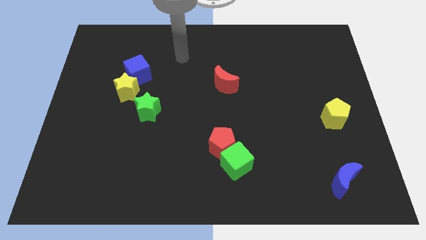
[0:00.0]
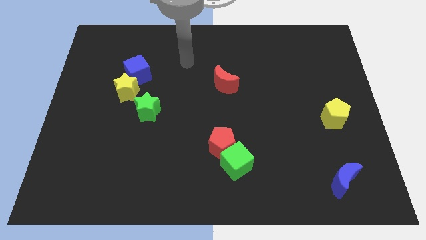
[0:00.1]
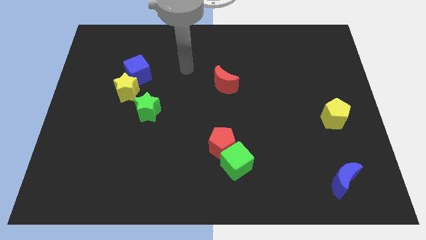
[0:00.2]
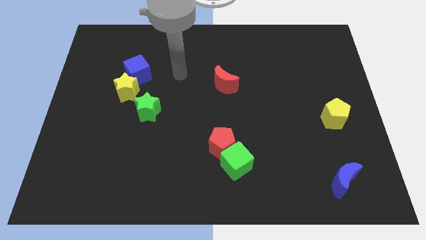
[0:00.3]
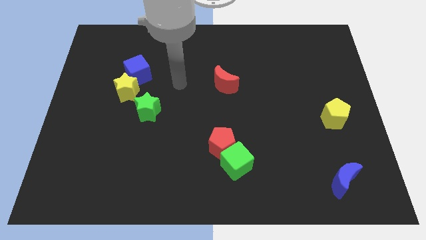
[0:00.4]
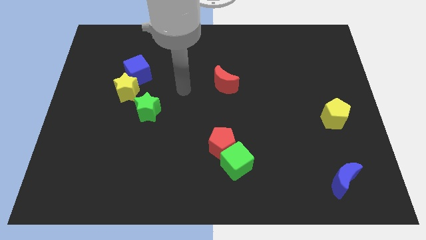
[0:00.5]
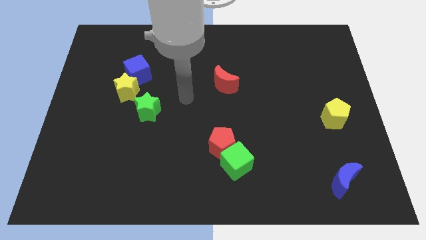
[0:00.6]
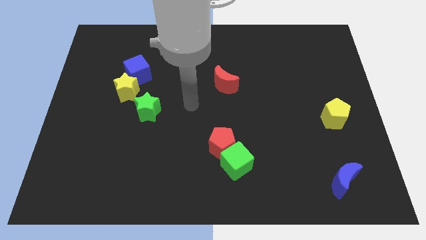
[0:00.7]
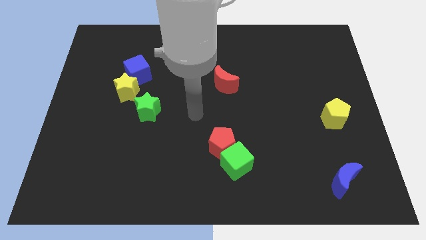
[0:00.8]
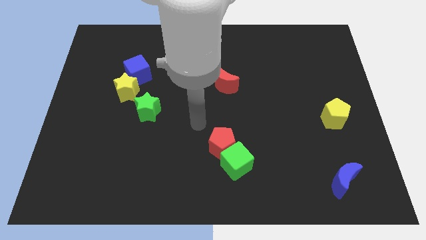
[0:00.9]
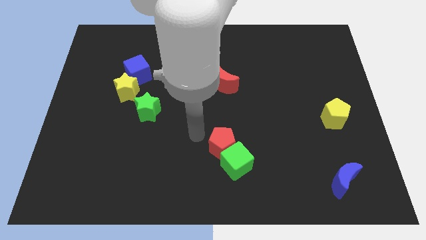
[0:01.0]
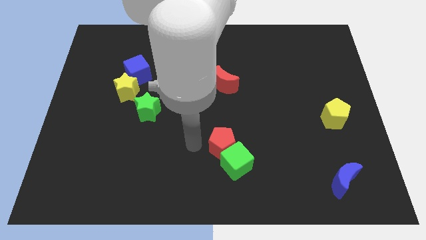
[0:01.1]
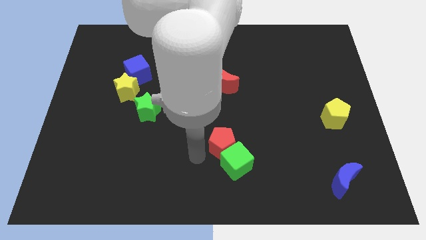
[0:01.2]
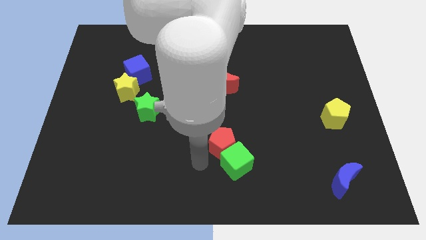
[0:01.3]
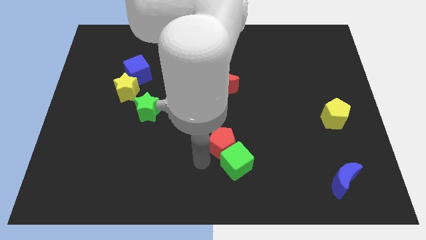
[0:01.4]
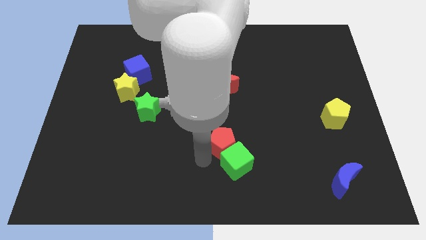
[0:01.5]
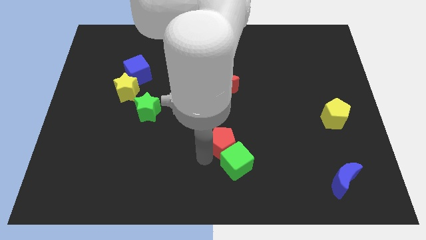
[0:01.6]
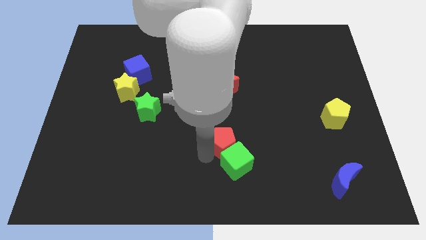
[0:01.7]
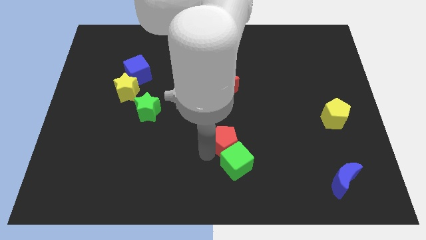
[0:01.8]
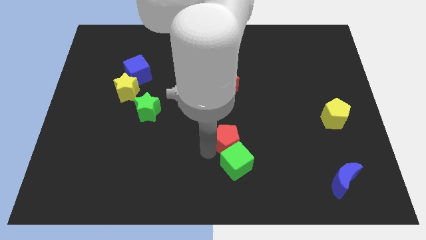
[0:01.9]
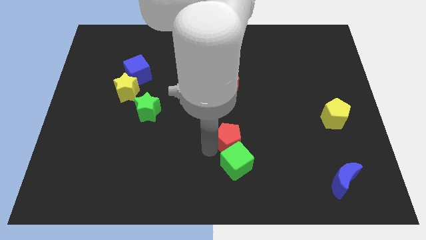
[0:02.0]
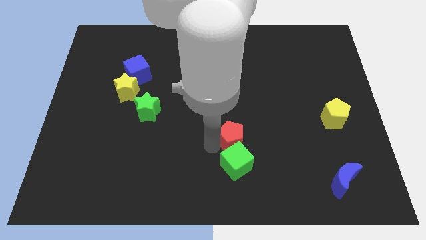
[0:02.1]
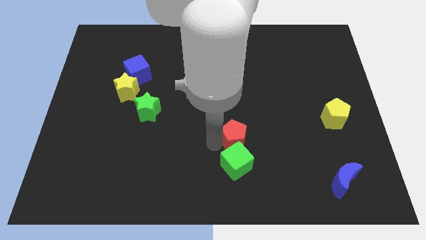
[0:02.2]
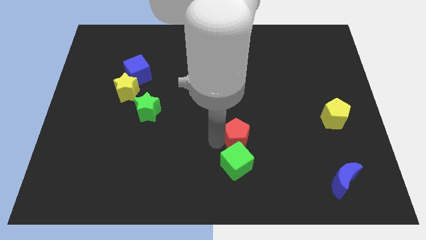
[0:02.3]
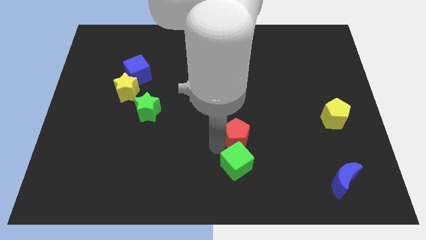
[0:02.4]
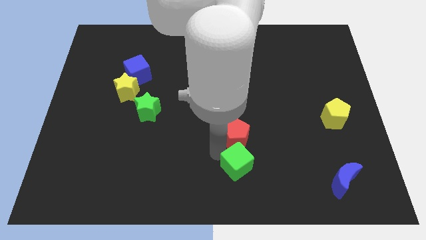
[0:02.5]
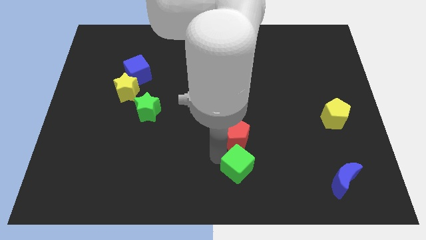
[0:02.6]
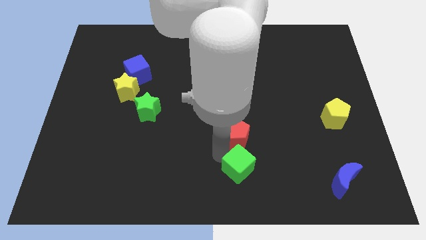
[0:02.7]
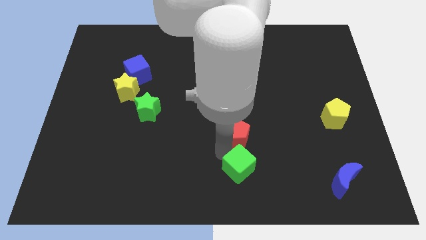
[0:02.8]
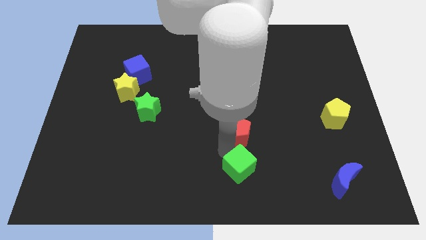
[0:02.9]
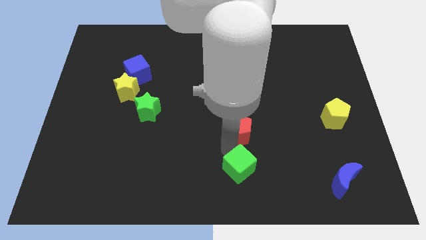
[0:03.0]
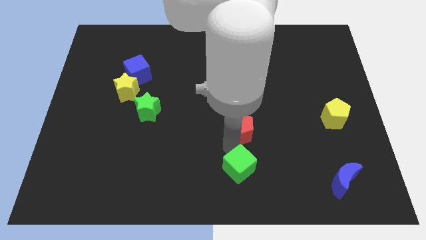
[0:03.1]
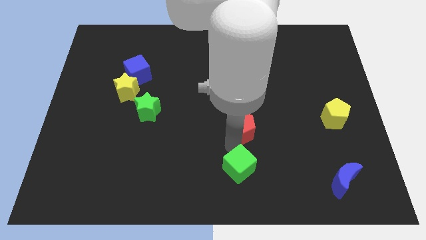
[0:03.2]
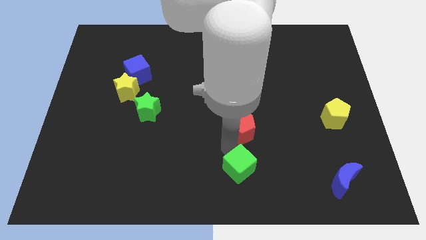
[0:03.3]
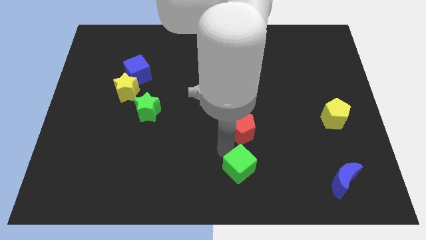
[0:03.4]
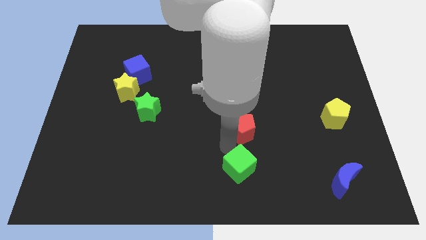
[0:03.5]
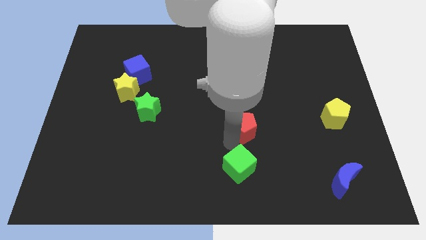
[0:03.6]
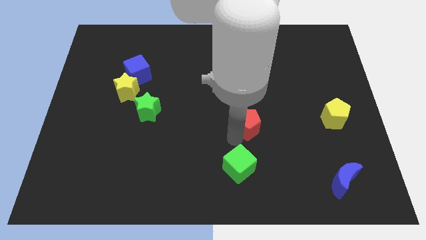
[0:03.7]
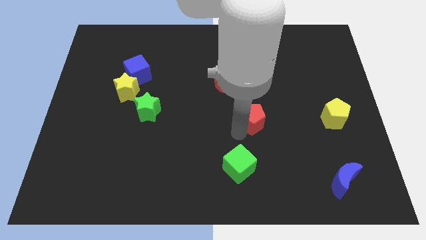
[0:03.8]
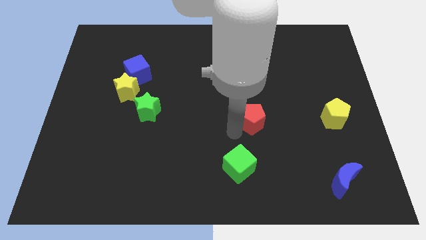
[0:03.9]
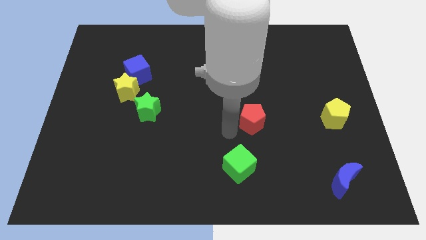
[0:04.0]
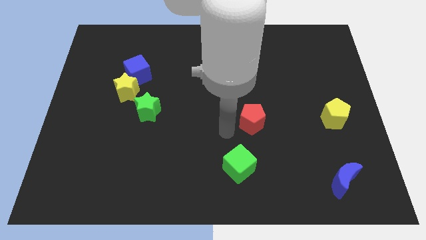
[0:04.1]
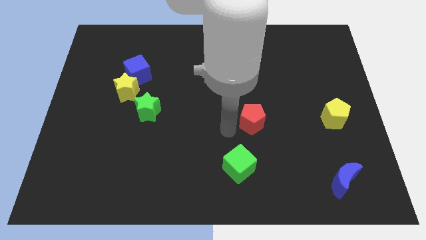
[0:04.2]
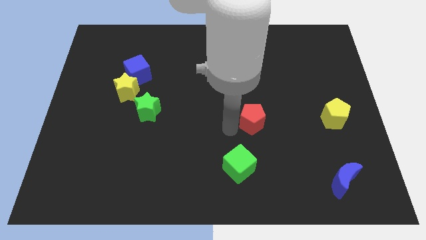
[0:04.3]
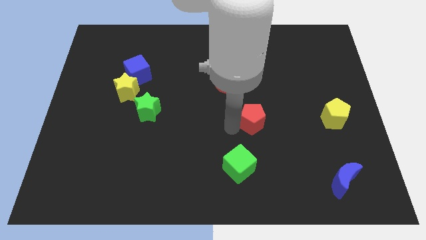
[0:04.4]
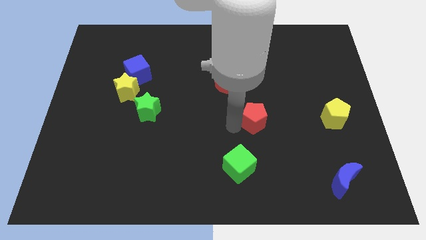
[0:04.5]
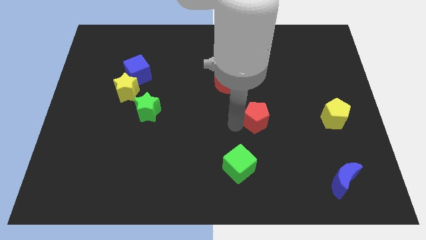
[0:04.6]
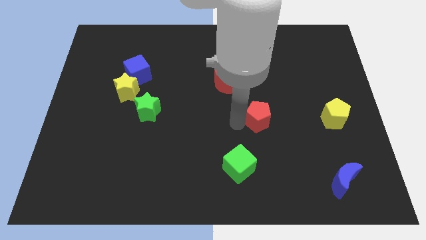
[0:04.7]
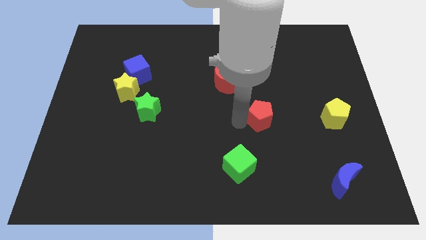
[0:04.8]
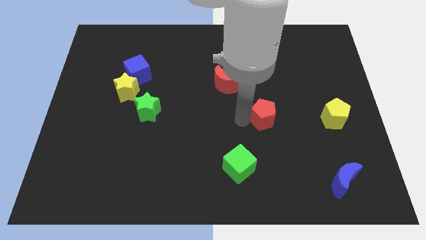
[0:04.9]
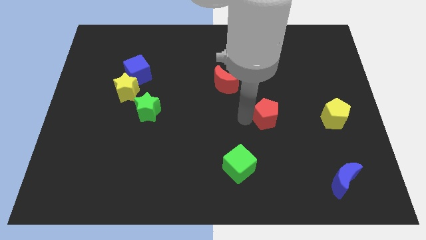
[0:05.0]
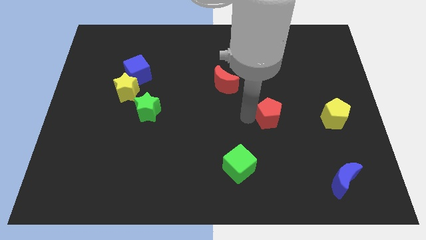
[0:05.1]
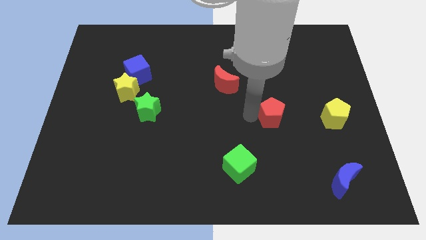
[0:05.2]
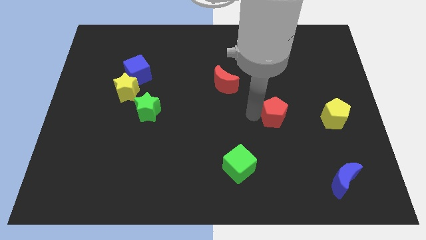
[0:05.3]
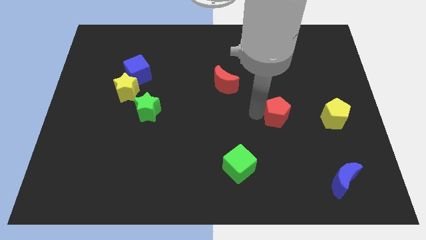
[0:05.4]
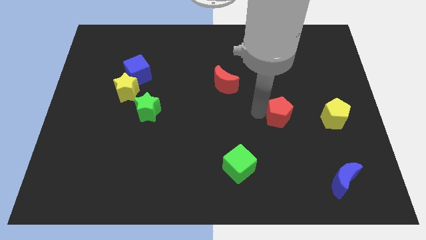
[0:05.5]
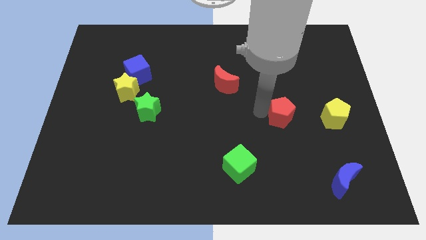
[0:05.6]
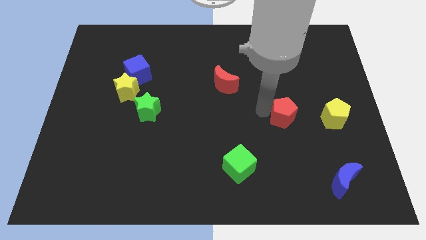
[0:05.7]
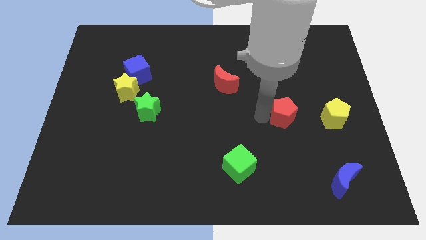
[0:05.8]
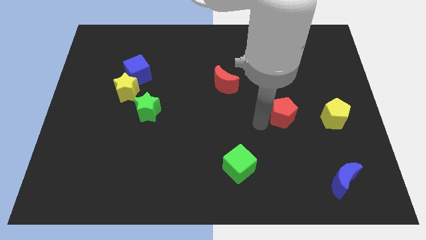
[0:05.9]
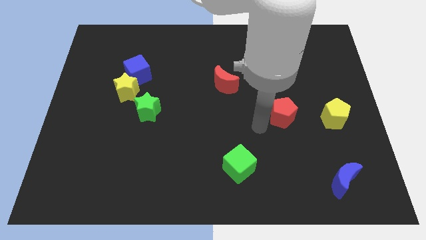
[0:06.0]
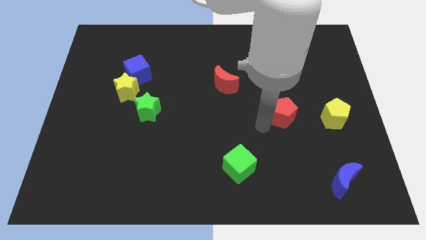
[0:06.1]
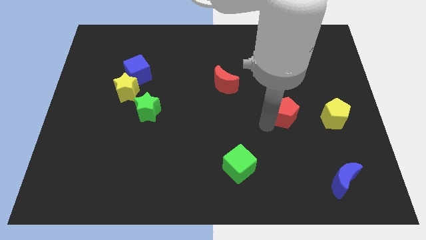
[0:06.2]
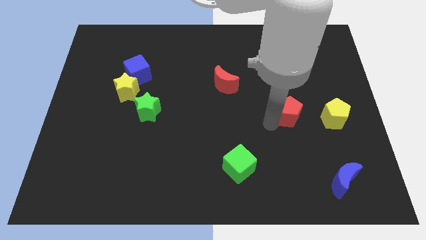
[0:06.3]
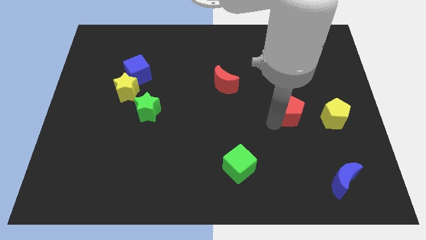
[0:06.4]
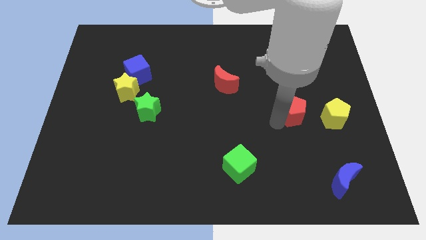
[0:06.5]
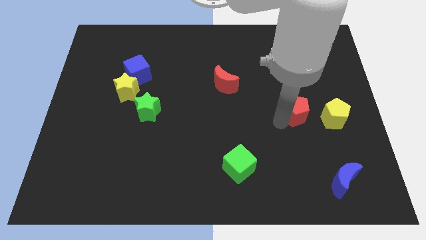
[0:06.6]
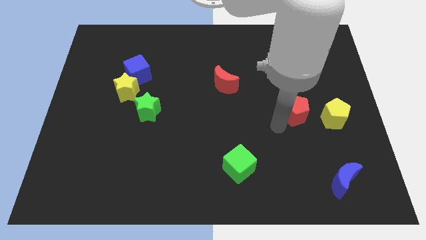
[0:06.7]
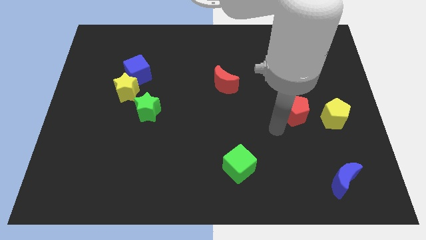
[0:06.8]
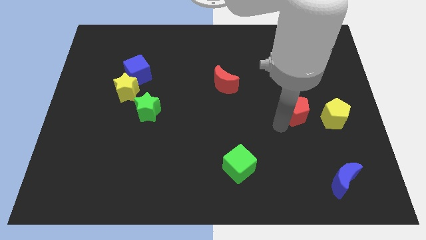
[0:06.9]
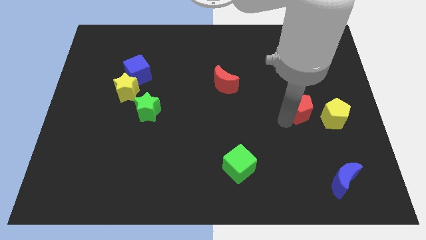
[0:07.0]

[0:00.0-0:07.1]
push the red pentagon diagonally up and to the left of the yellow pentagon
